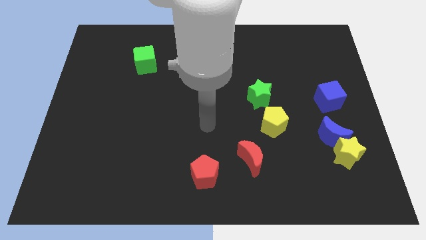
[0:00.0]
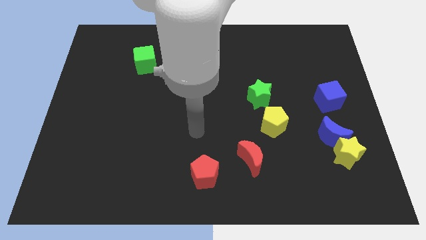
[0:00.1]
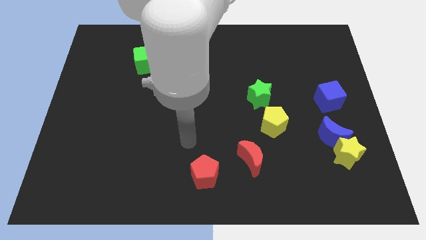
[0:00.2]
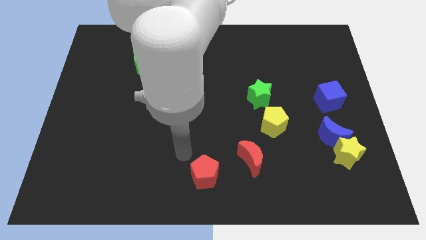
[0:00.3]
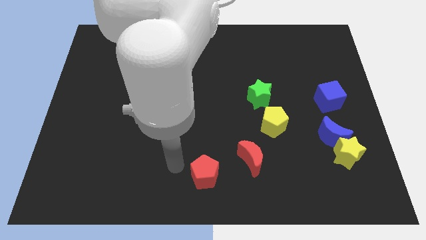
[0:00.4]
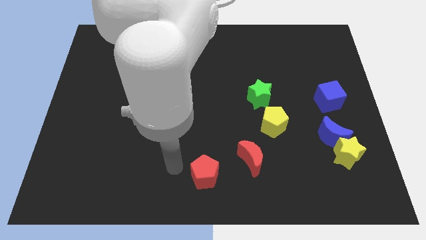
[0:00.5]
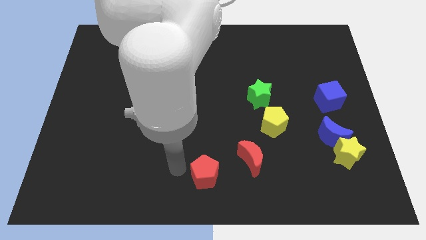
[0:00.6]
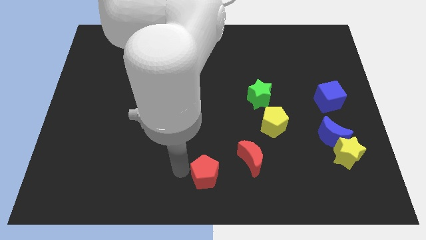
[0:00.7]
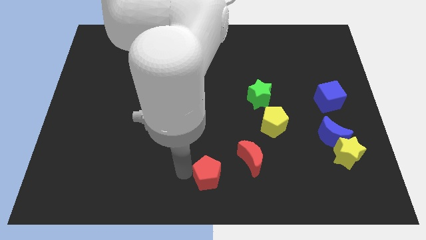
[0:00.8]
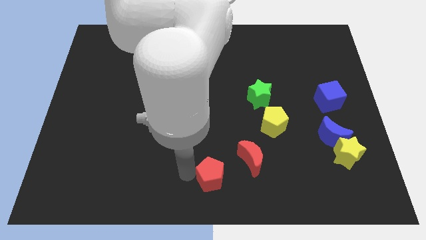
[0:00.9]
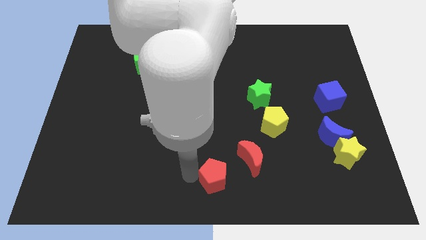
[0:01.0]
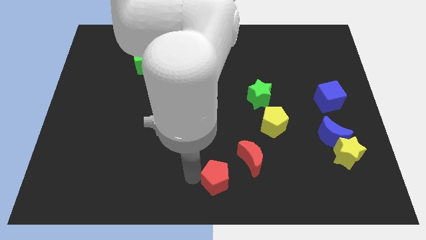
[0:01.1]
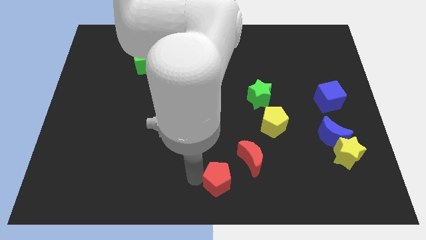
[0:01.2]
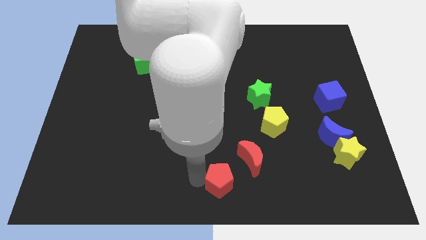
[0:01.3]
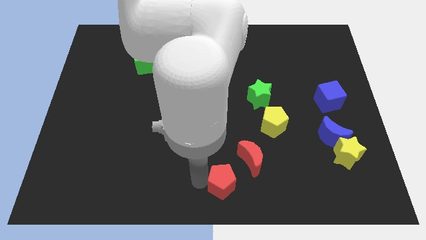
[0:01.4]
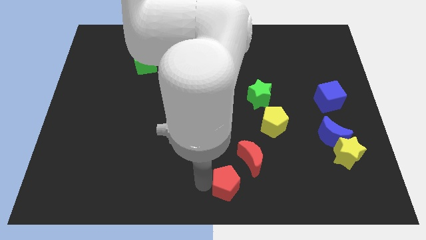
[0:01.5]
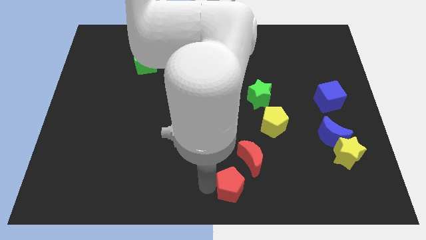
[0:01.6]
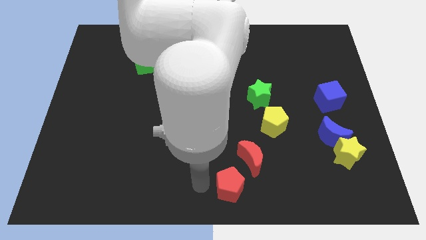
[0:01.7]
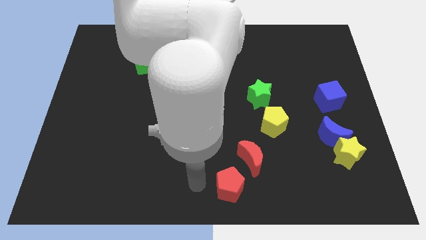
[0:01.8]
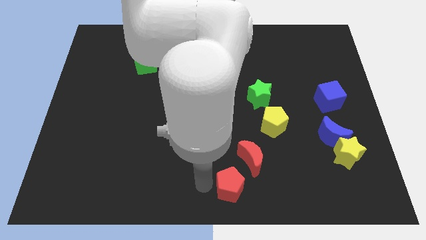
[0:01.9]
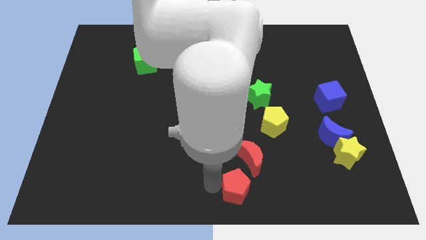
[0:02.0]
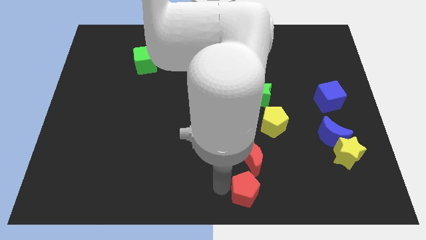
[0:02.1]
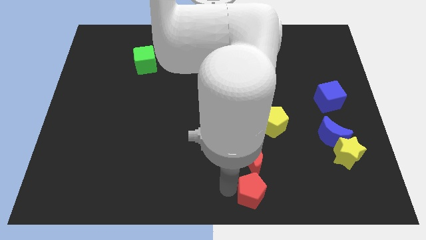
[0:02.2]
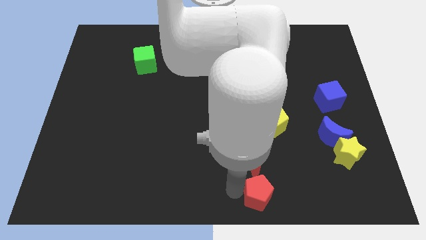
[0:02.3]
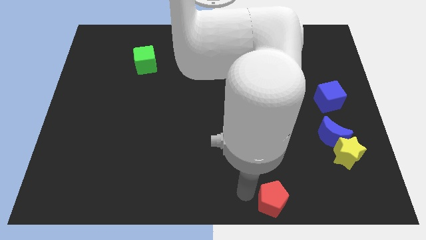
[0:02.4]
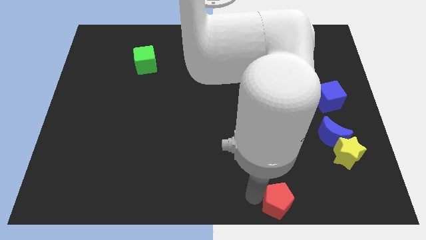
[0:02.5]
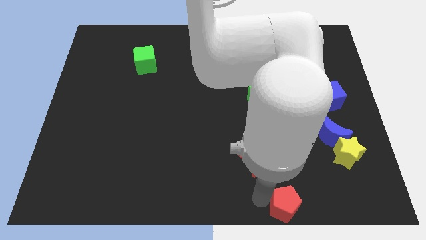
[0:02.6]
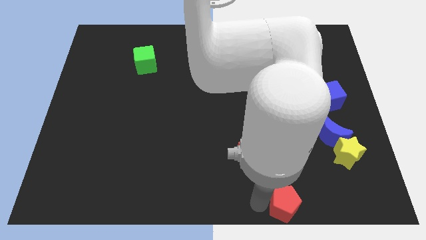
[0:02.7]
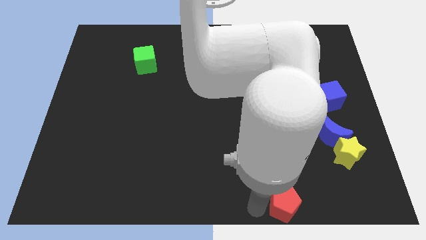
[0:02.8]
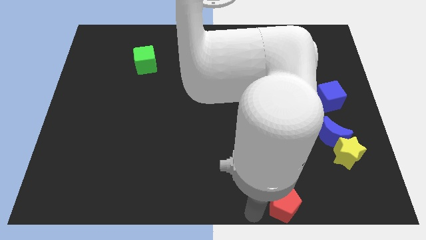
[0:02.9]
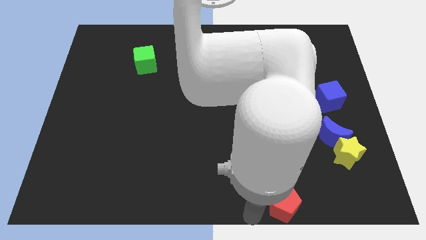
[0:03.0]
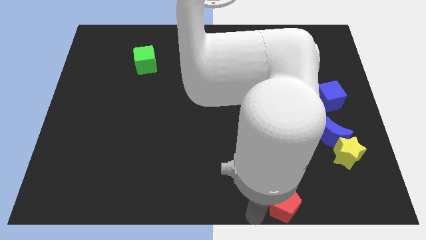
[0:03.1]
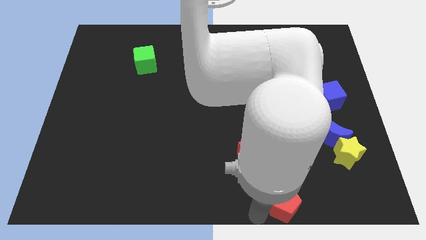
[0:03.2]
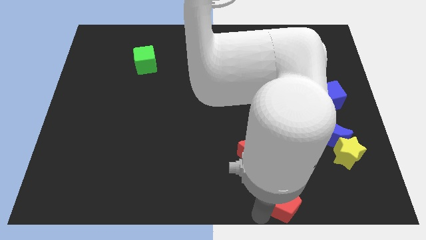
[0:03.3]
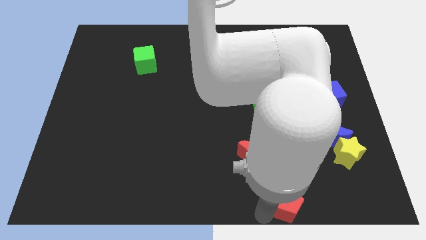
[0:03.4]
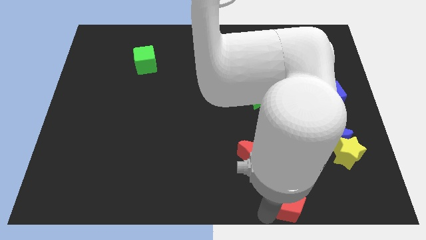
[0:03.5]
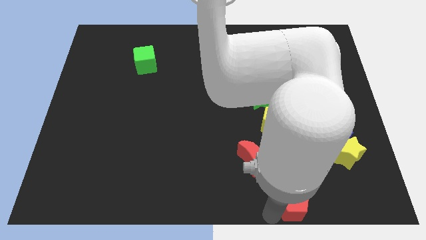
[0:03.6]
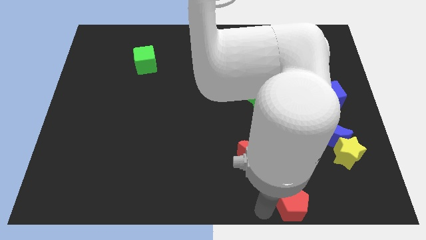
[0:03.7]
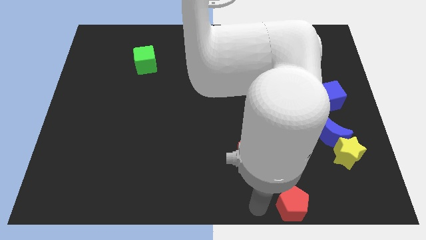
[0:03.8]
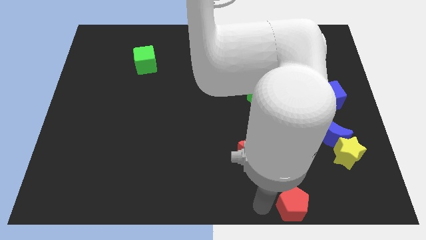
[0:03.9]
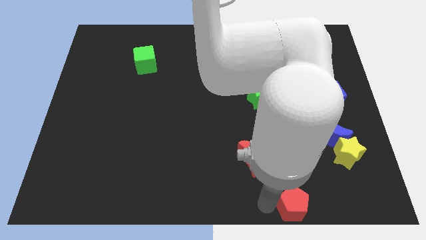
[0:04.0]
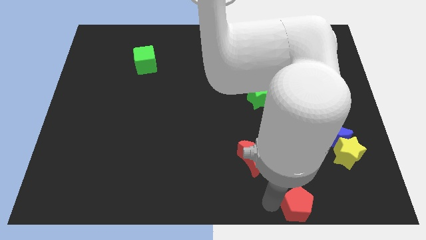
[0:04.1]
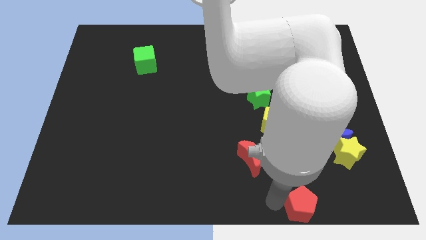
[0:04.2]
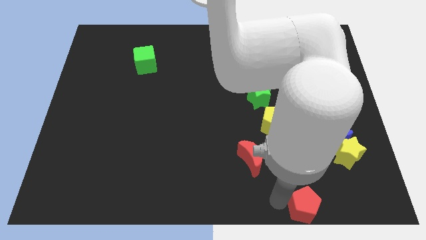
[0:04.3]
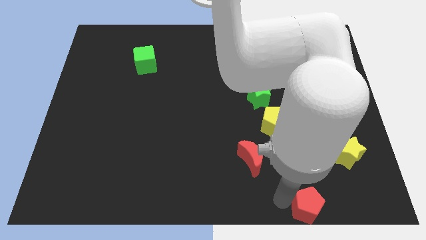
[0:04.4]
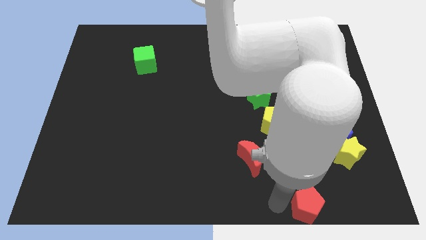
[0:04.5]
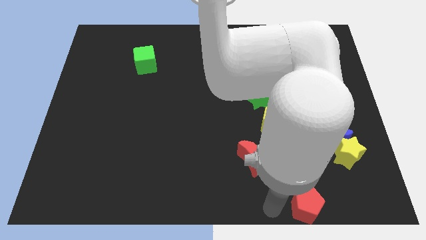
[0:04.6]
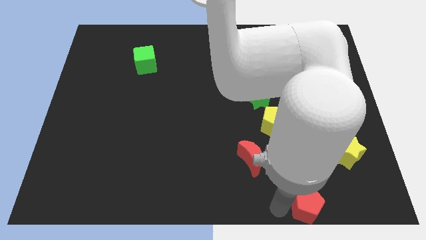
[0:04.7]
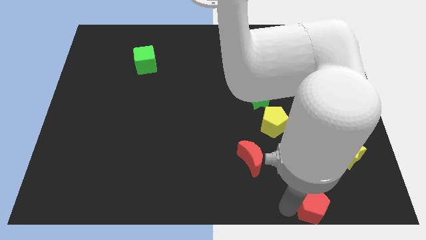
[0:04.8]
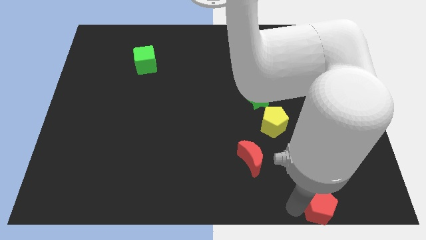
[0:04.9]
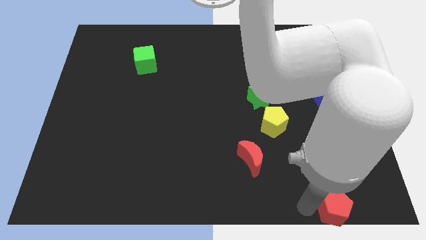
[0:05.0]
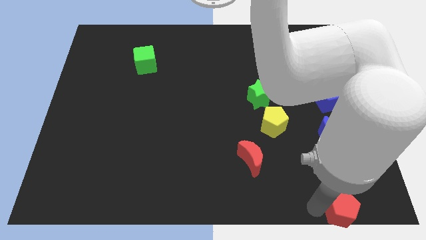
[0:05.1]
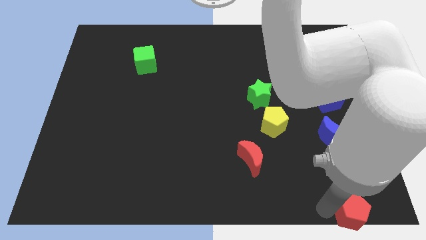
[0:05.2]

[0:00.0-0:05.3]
put the red pentagon to the bottom right corner

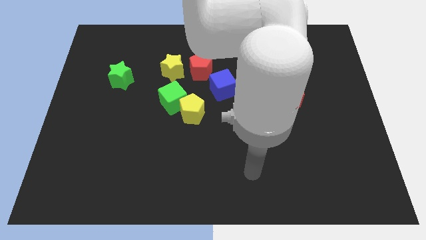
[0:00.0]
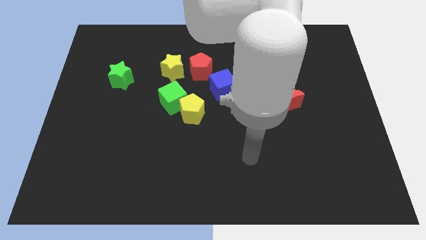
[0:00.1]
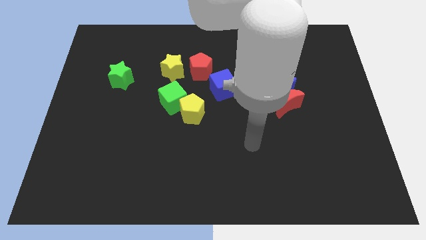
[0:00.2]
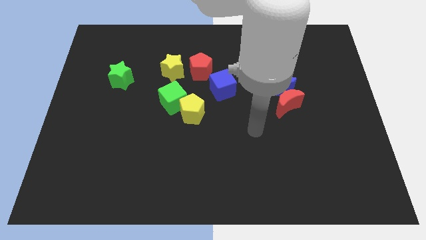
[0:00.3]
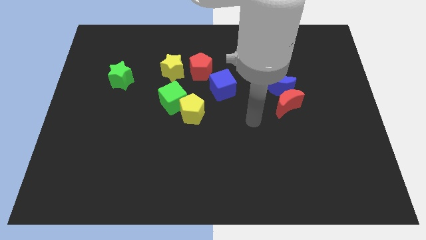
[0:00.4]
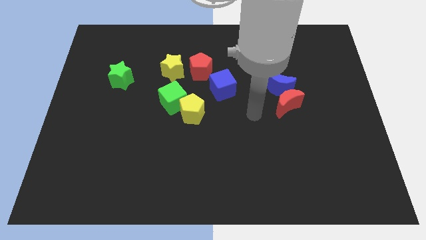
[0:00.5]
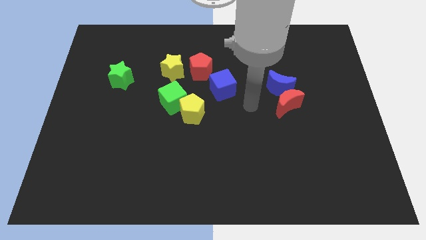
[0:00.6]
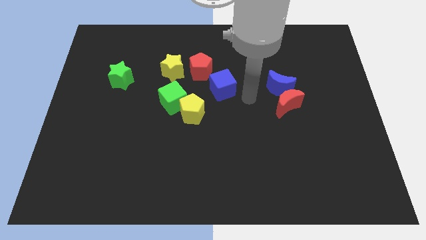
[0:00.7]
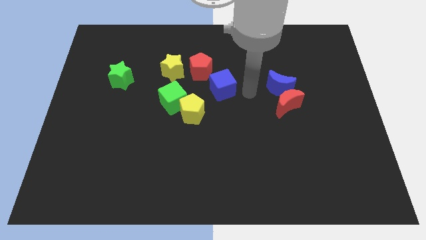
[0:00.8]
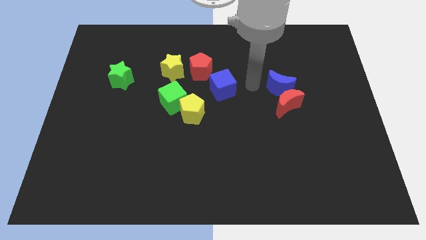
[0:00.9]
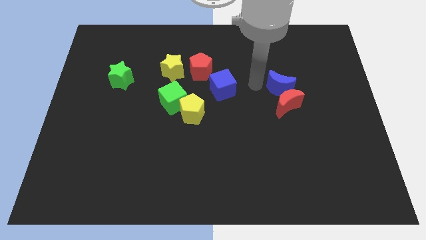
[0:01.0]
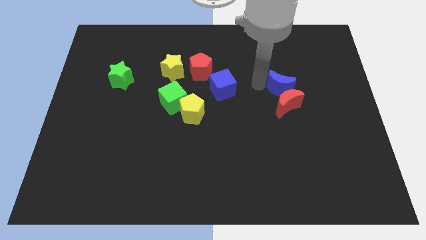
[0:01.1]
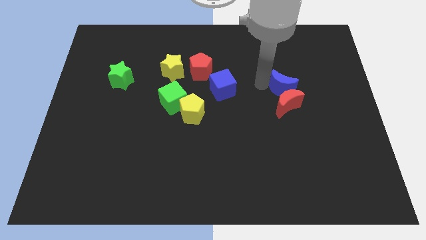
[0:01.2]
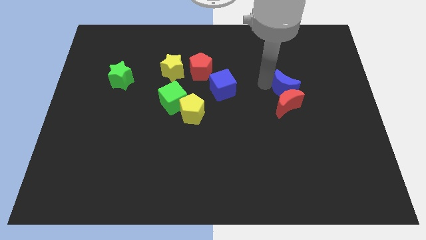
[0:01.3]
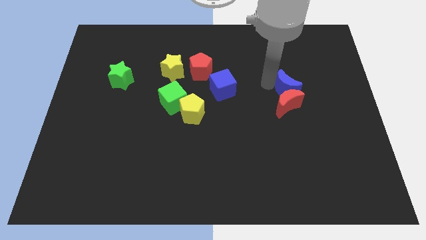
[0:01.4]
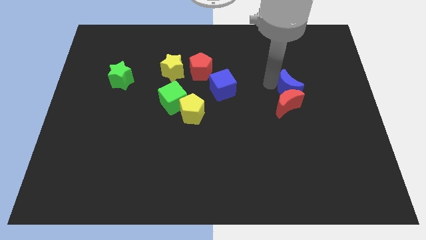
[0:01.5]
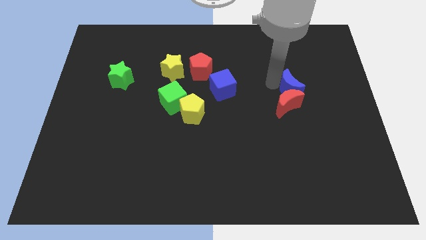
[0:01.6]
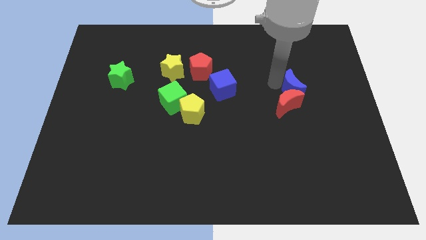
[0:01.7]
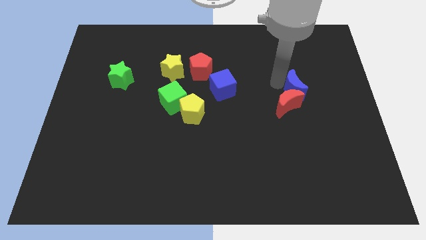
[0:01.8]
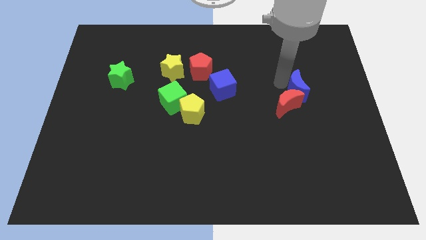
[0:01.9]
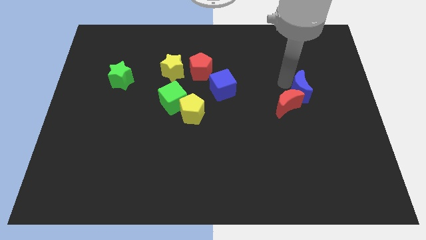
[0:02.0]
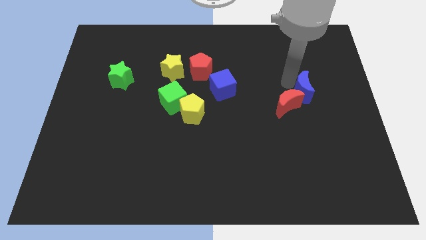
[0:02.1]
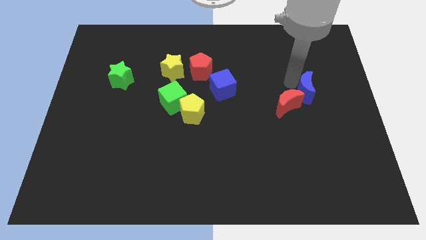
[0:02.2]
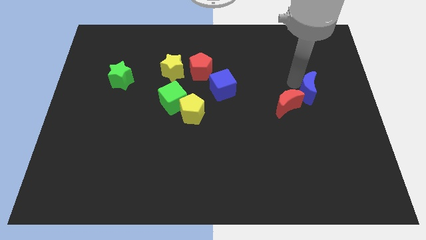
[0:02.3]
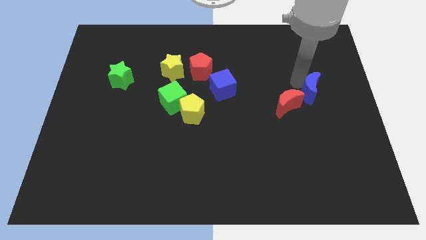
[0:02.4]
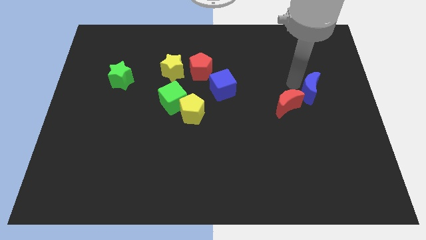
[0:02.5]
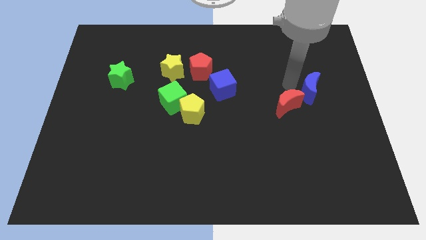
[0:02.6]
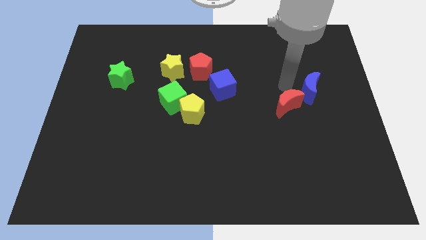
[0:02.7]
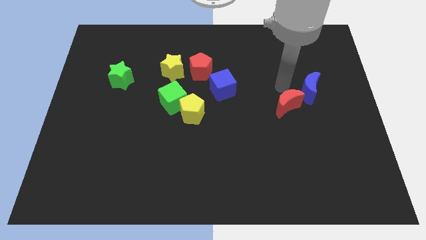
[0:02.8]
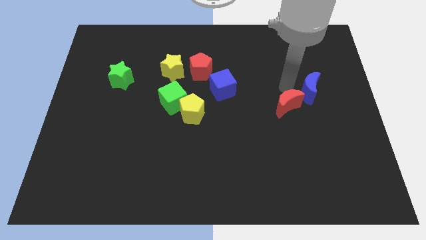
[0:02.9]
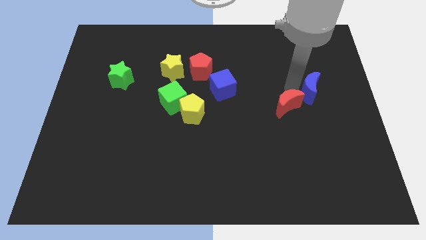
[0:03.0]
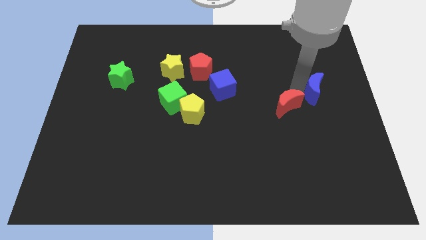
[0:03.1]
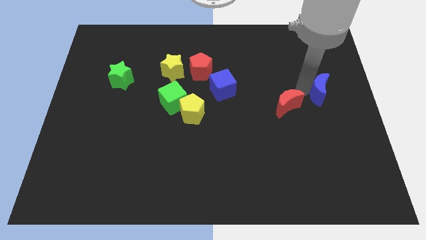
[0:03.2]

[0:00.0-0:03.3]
put the blue moon to the center right
